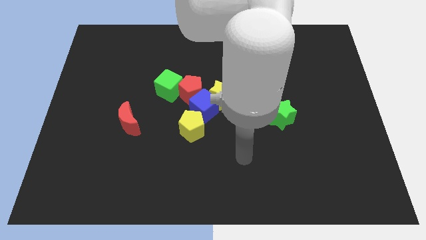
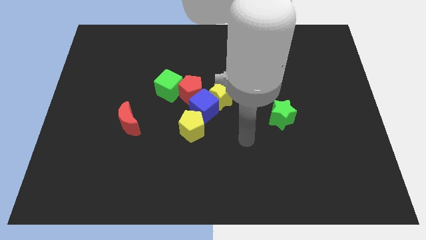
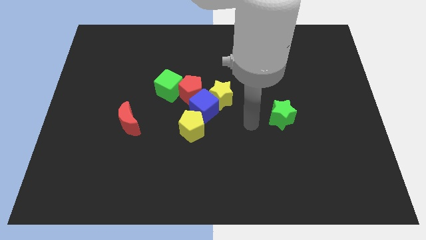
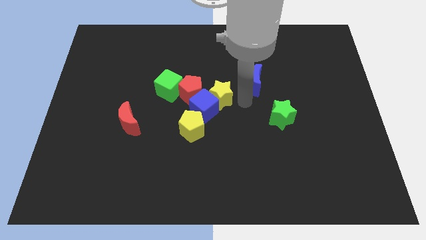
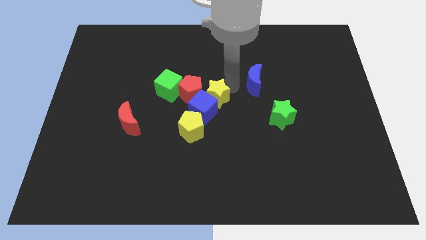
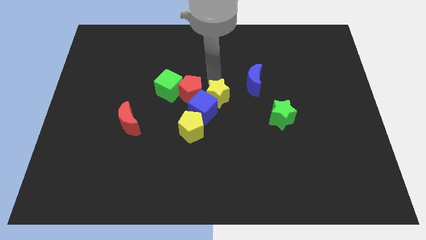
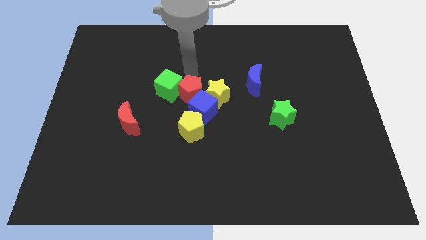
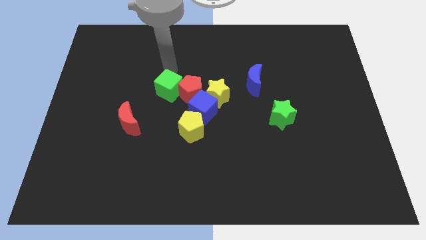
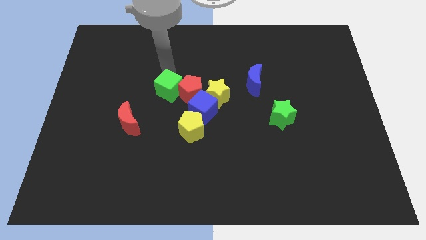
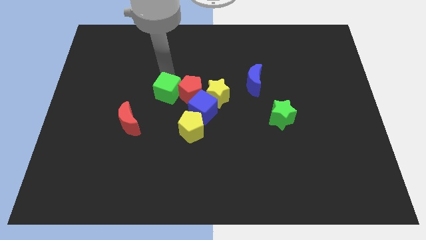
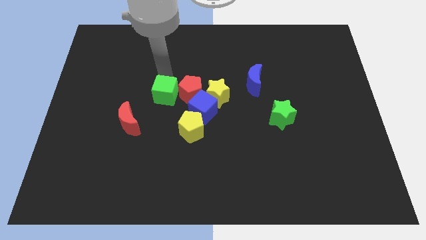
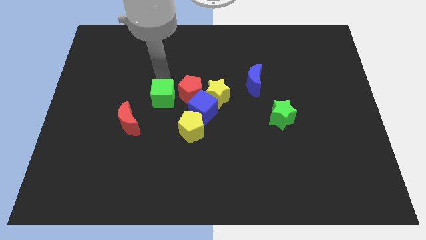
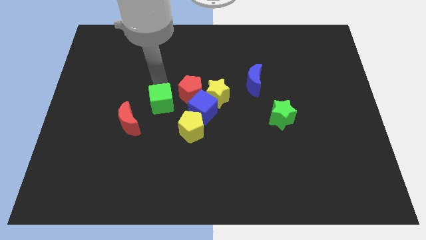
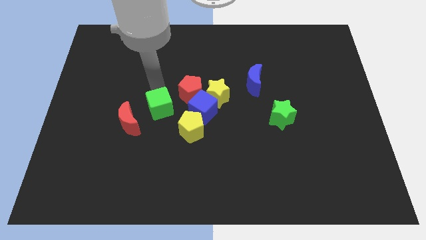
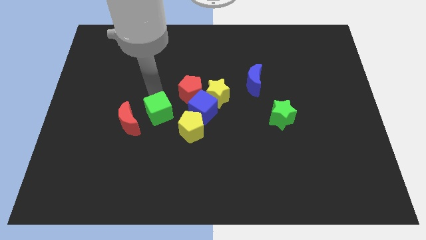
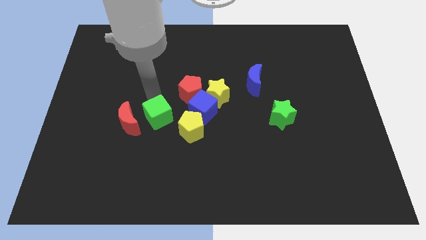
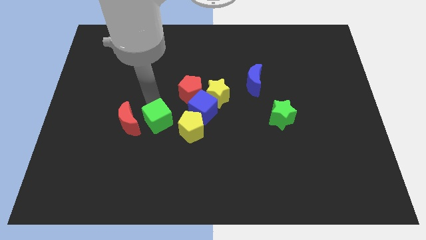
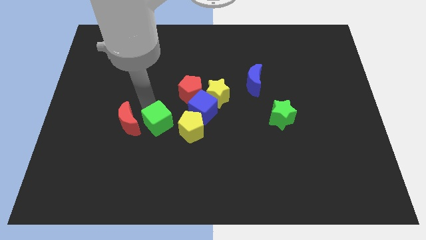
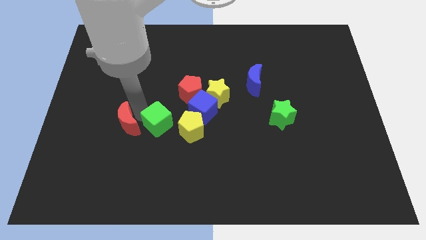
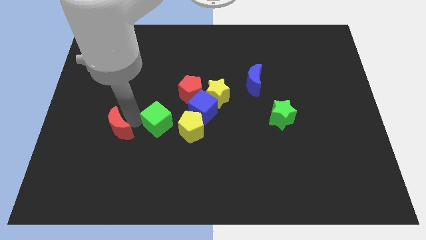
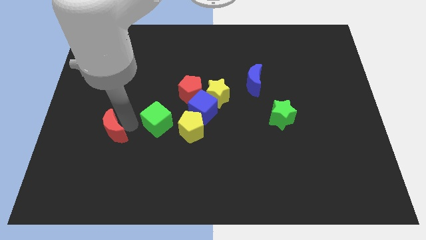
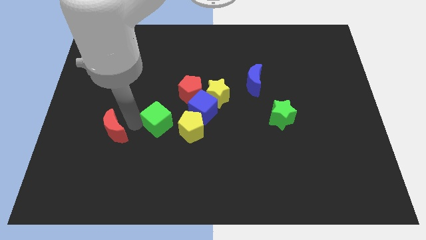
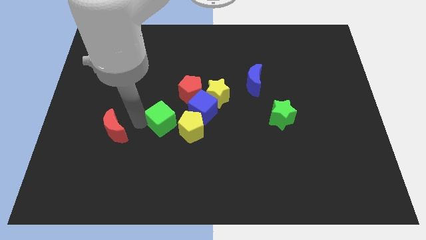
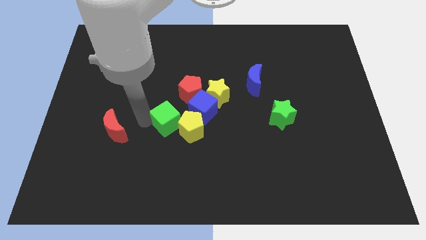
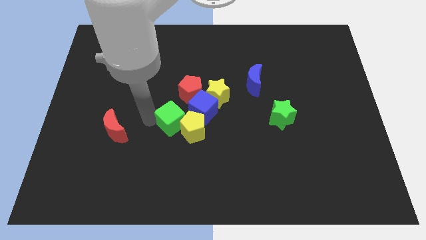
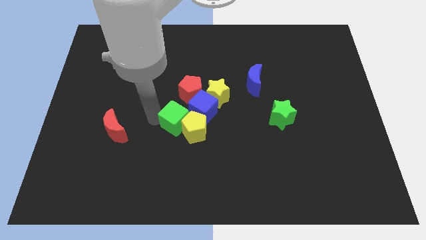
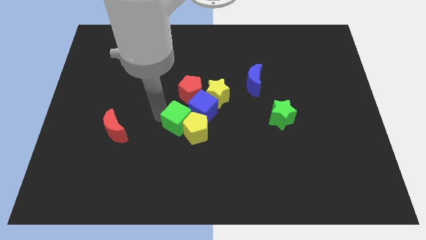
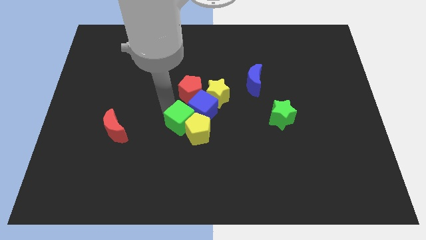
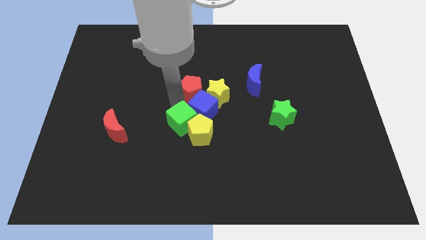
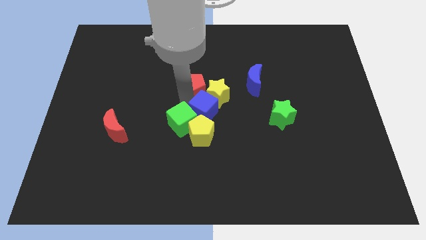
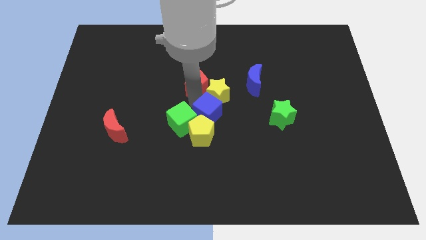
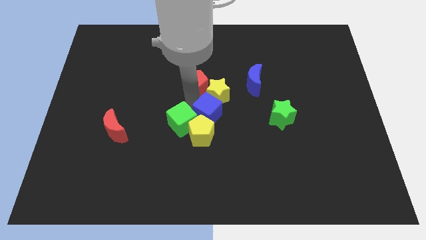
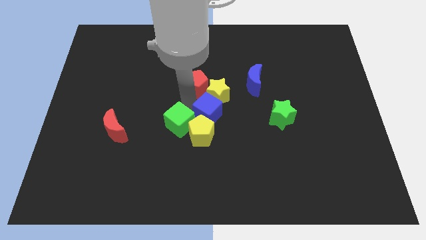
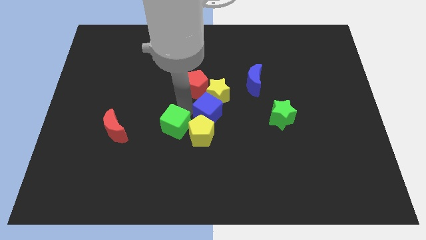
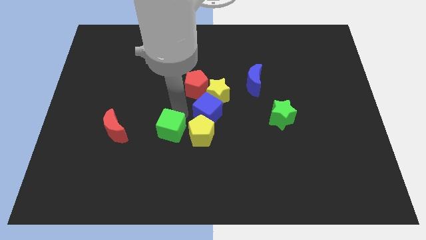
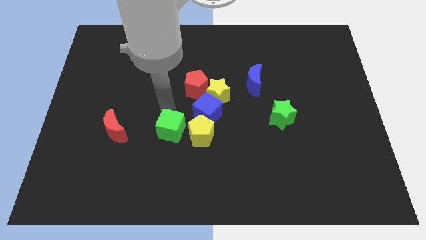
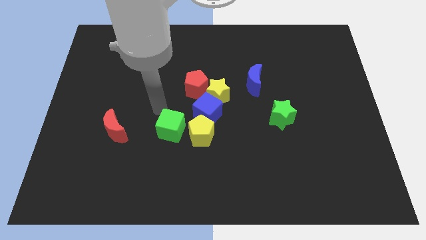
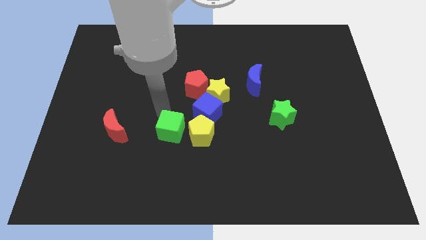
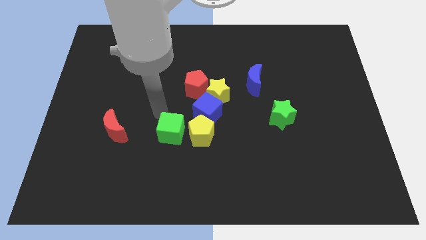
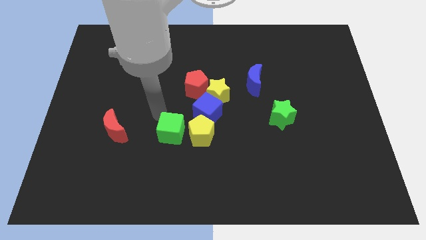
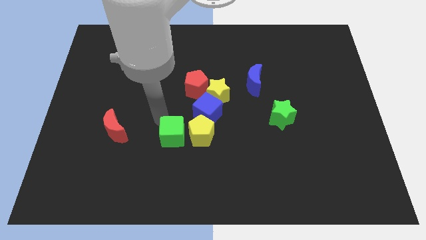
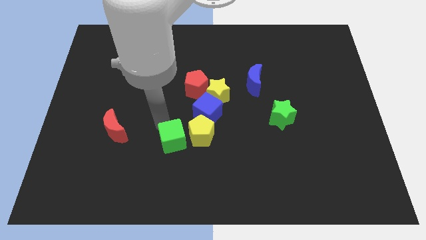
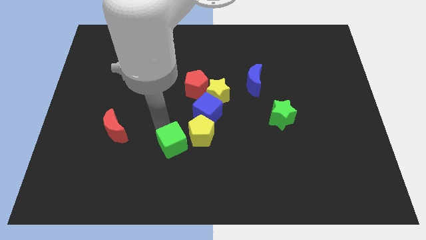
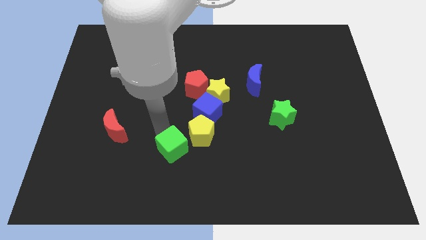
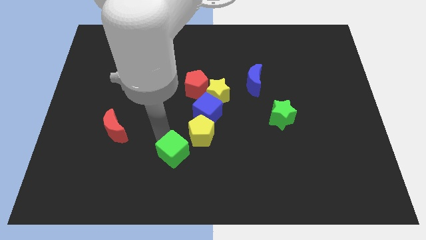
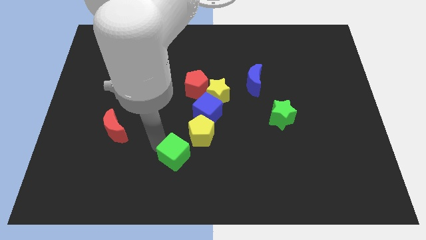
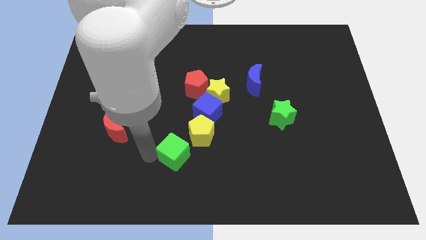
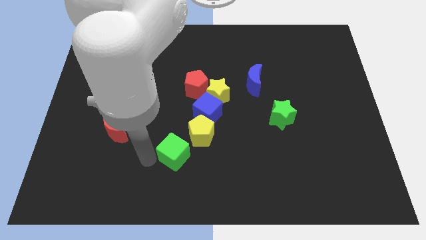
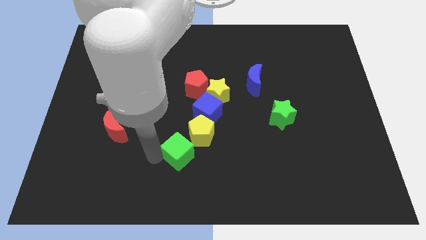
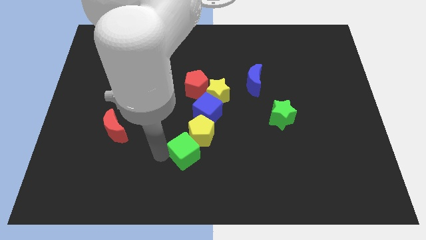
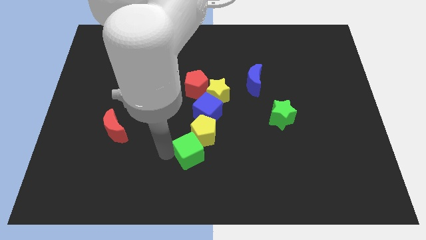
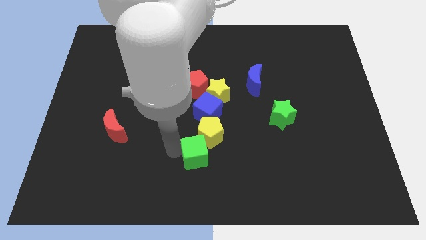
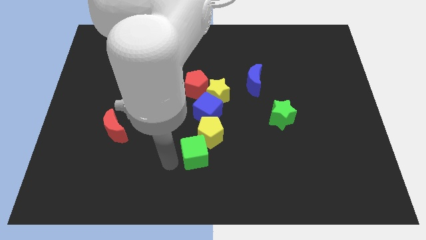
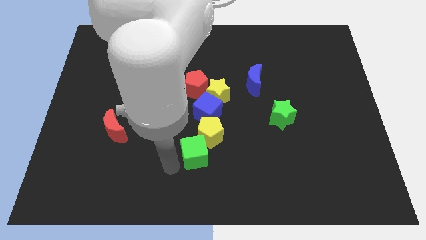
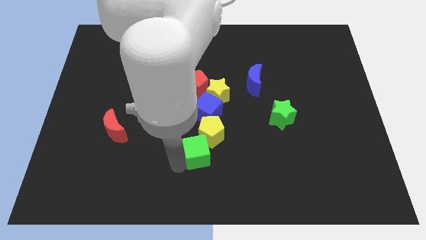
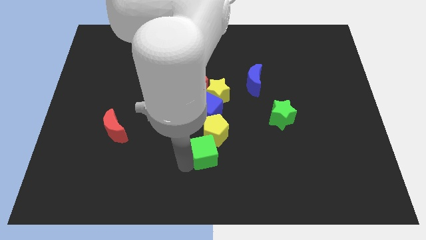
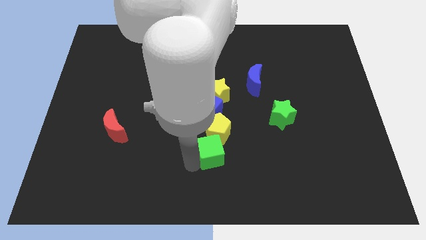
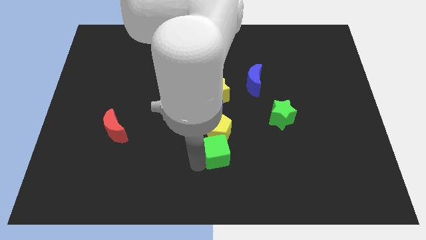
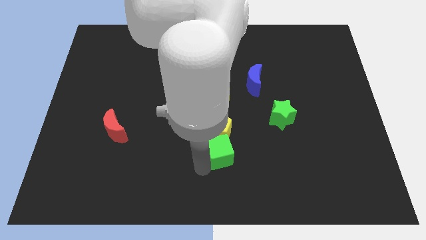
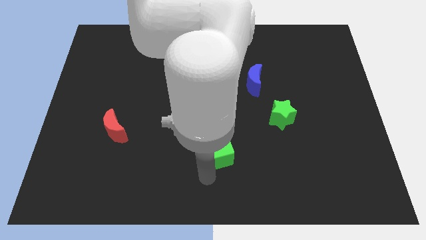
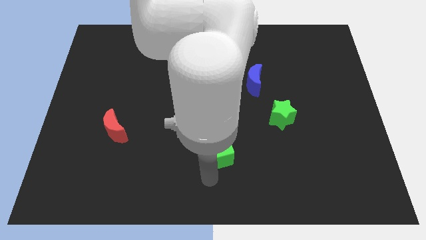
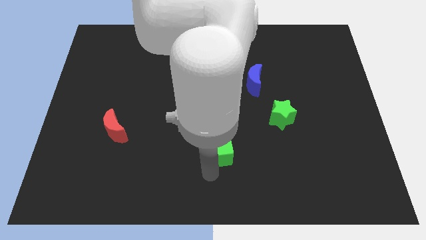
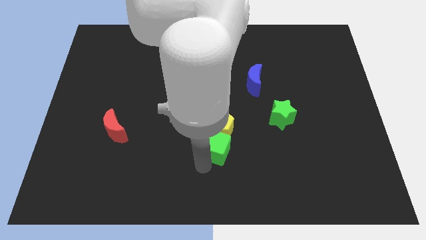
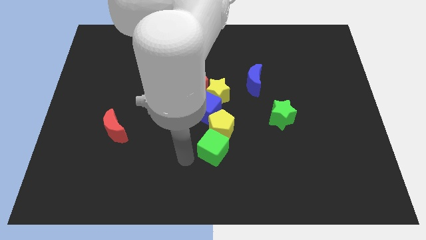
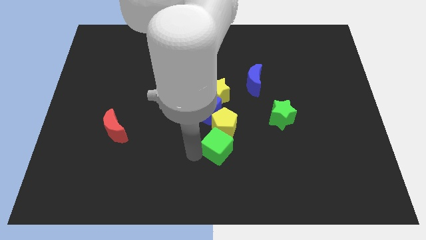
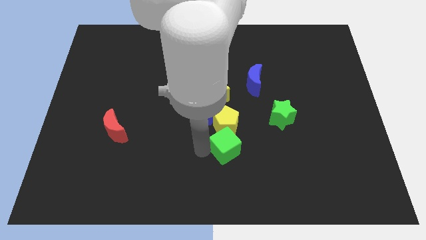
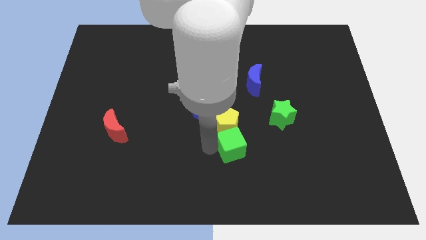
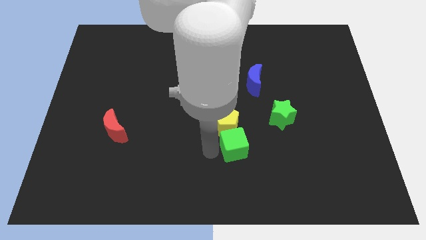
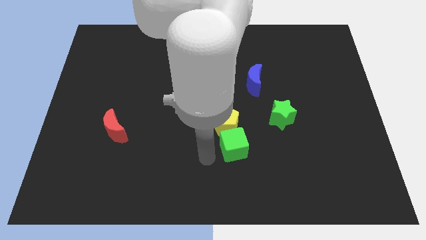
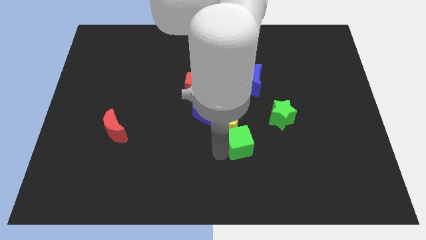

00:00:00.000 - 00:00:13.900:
move the green cube to the bottom left side of the green star

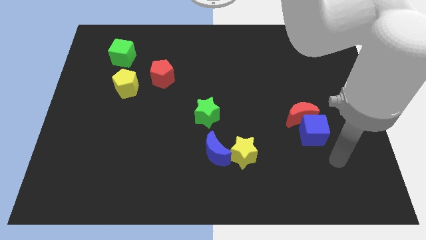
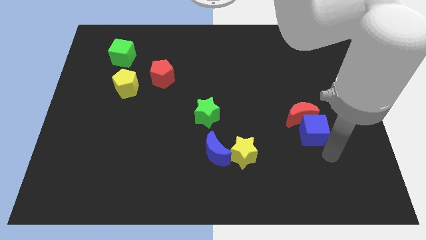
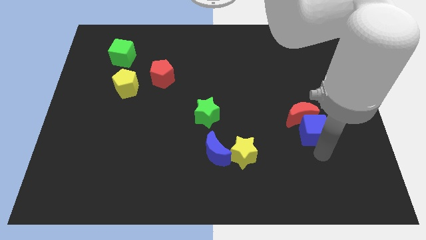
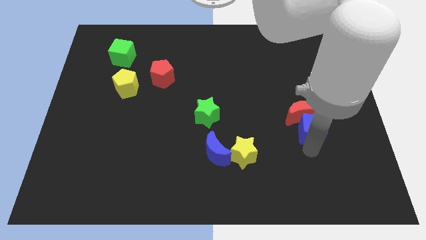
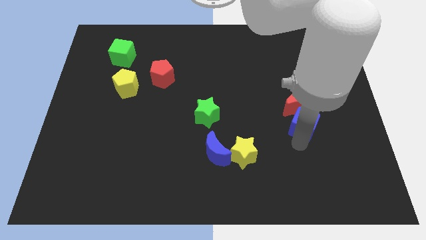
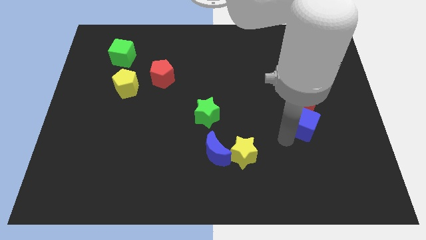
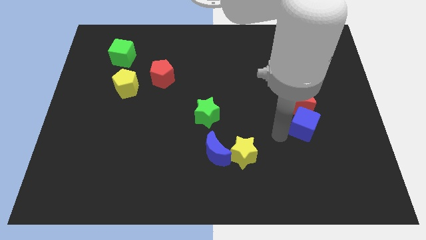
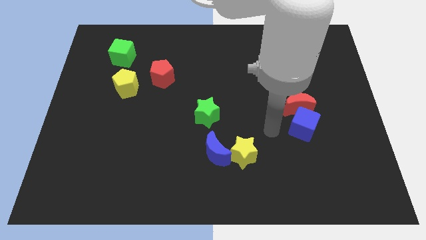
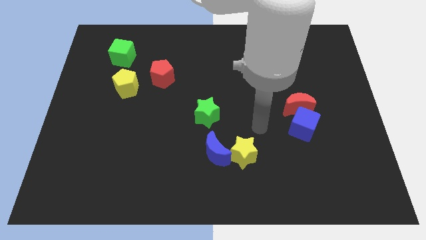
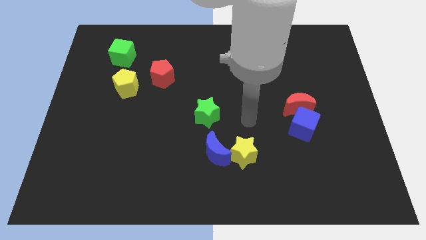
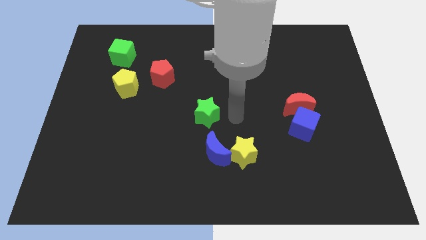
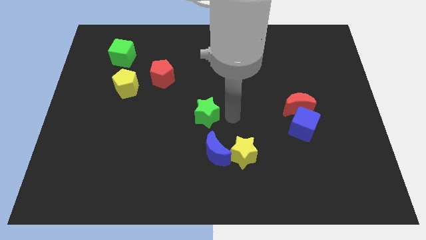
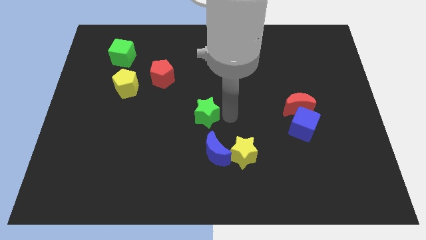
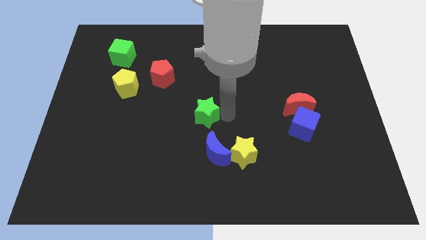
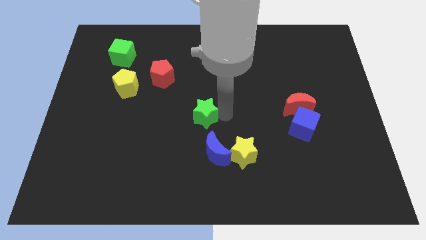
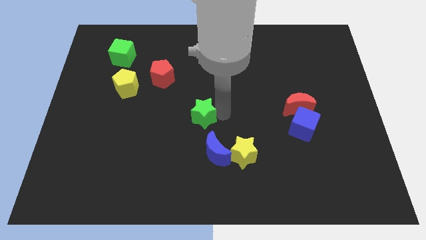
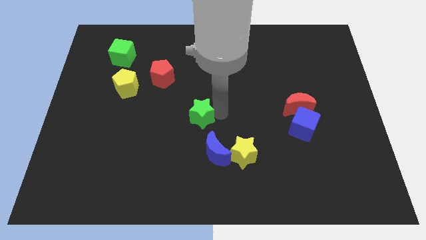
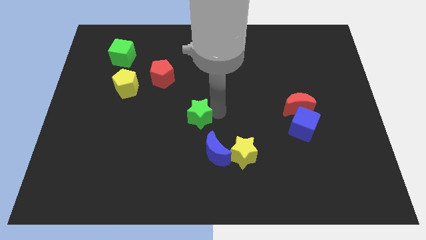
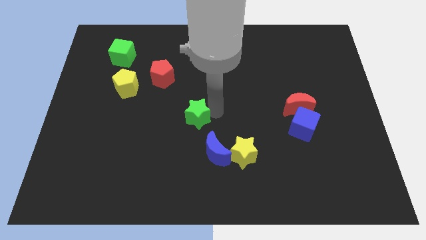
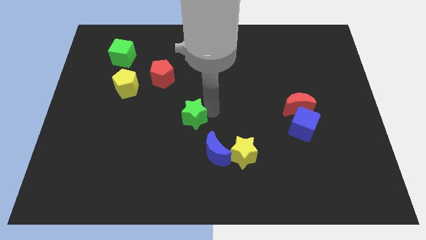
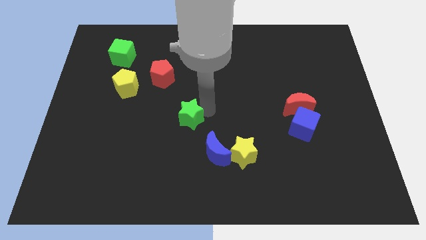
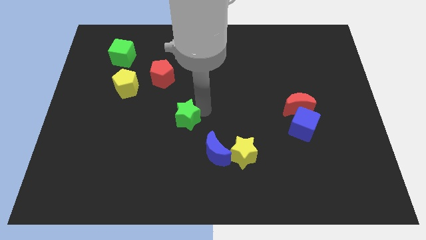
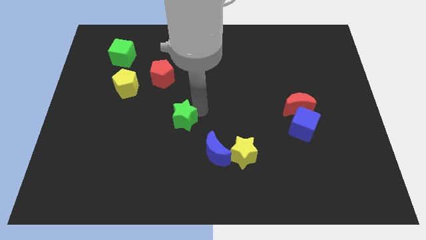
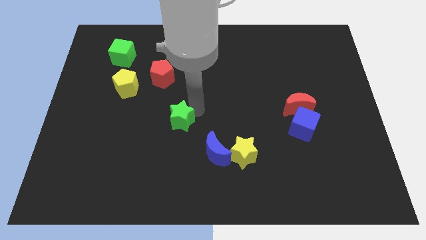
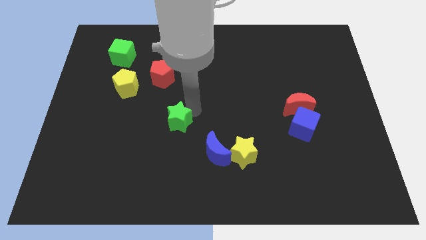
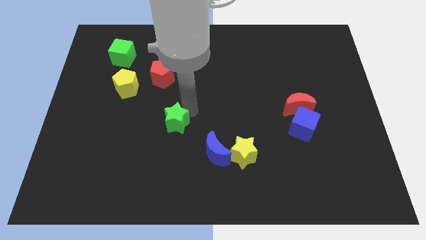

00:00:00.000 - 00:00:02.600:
put the green star below the red pentagon
